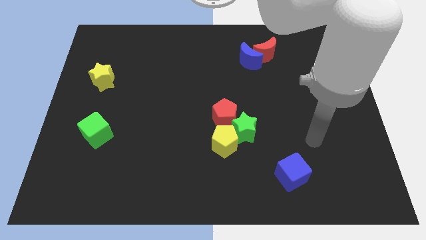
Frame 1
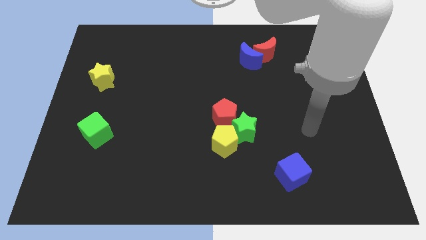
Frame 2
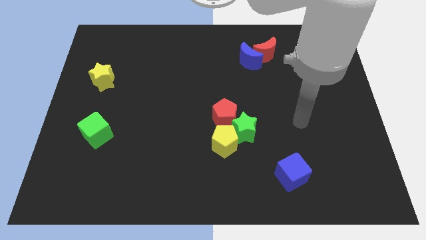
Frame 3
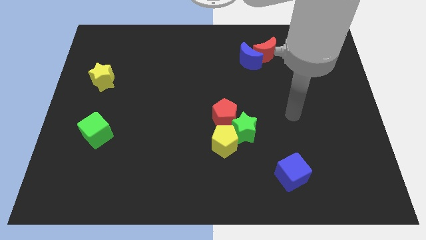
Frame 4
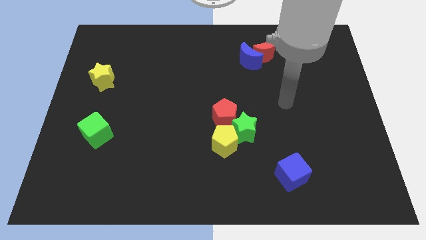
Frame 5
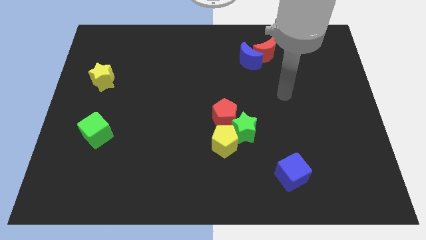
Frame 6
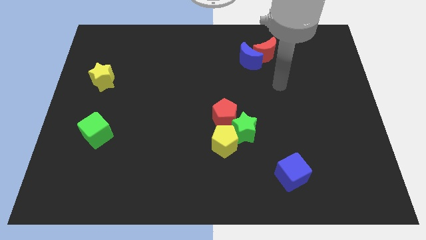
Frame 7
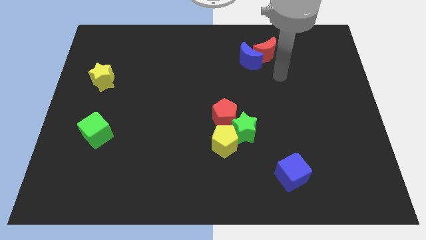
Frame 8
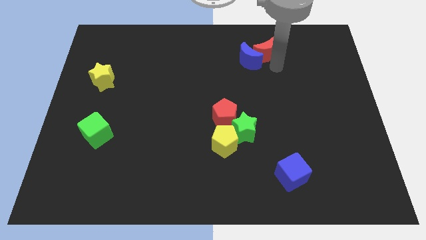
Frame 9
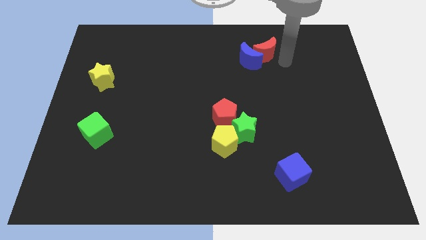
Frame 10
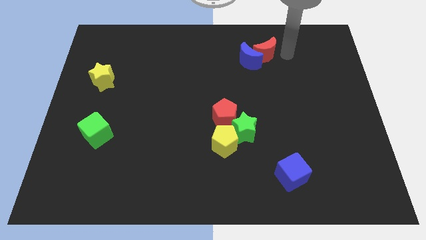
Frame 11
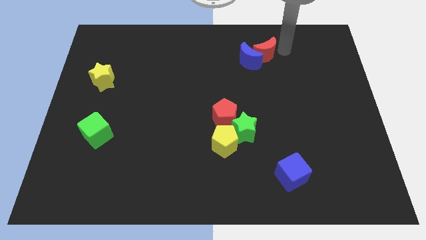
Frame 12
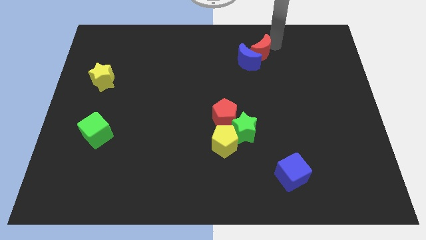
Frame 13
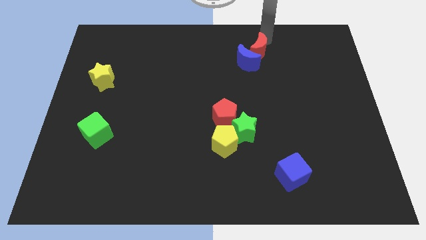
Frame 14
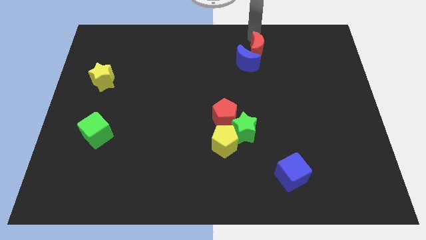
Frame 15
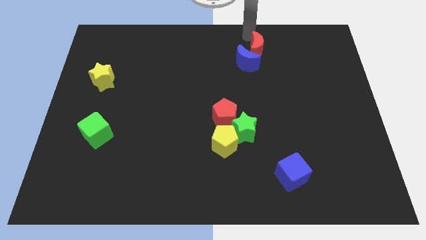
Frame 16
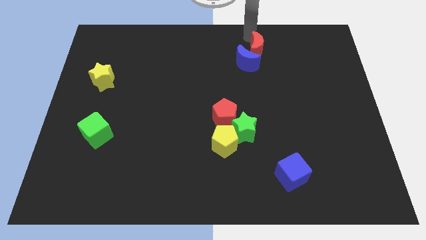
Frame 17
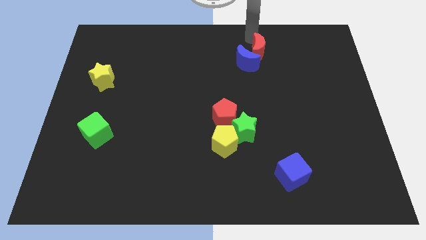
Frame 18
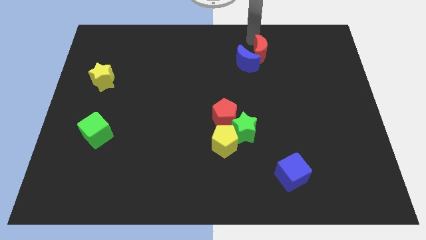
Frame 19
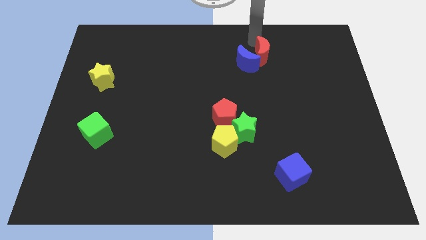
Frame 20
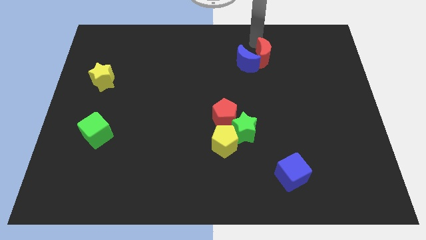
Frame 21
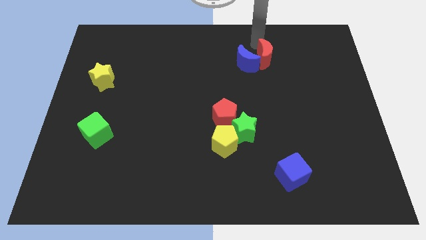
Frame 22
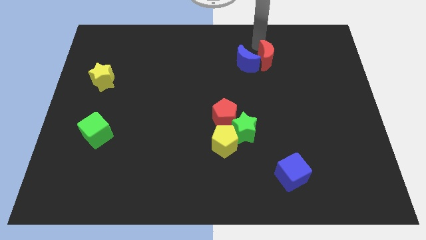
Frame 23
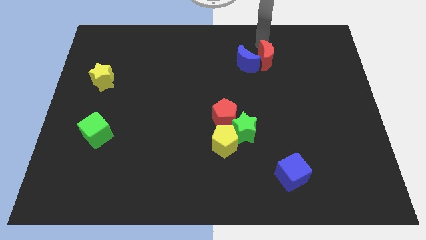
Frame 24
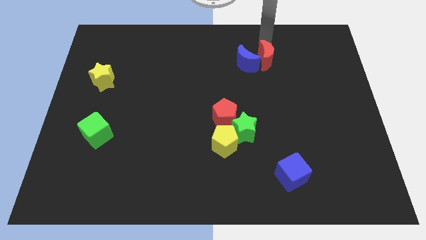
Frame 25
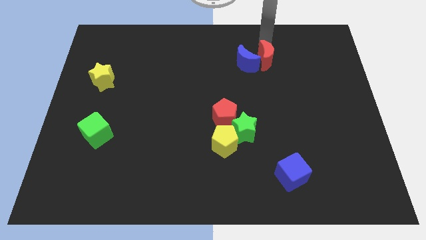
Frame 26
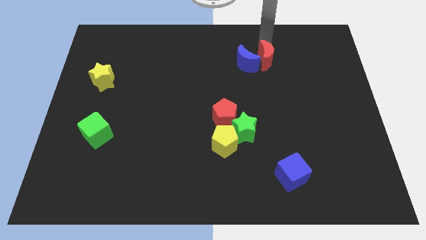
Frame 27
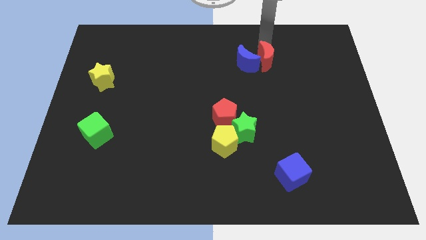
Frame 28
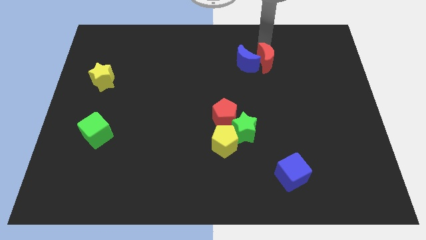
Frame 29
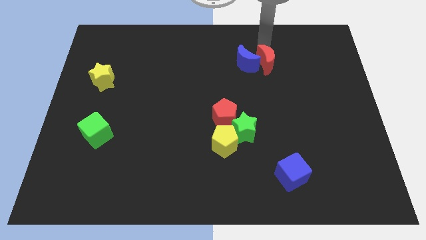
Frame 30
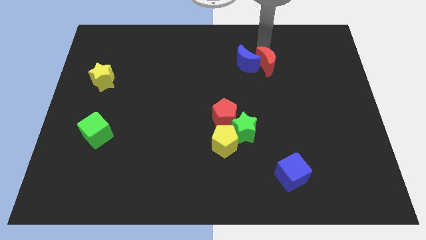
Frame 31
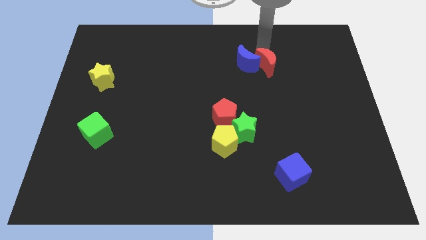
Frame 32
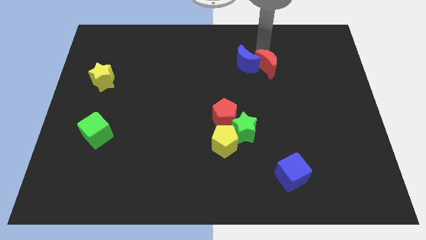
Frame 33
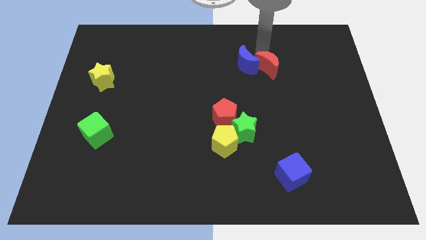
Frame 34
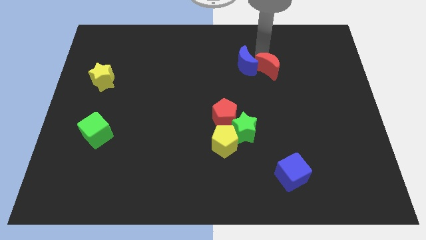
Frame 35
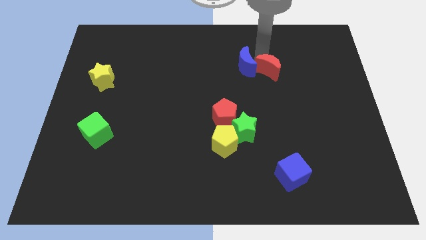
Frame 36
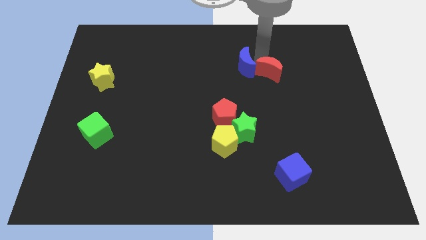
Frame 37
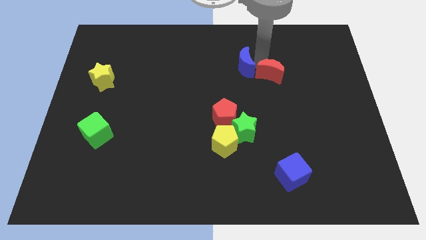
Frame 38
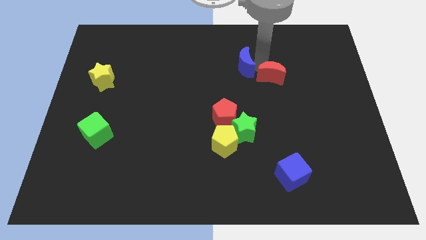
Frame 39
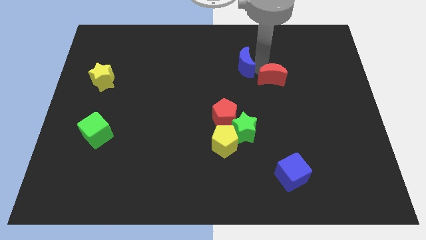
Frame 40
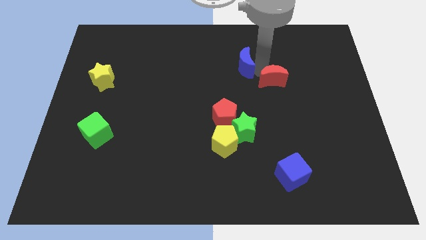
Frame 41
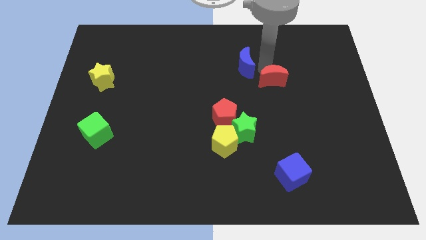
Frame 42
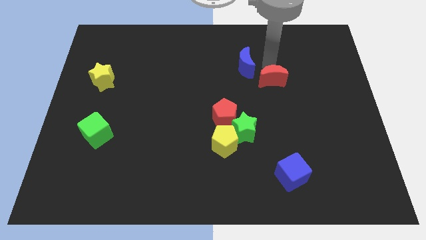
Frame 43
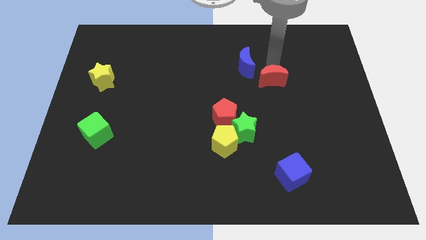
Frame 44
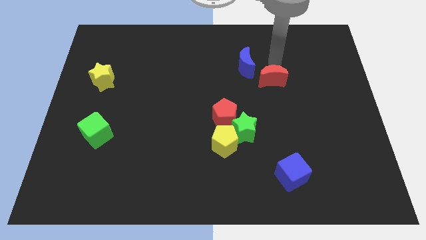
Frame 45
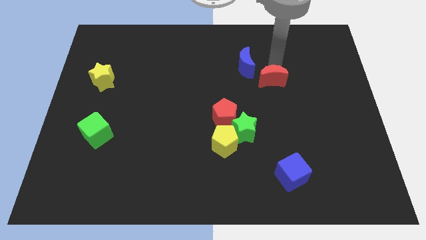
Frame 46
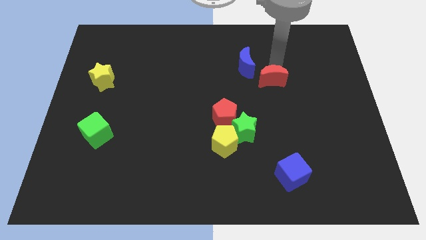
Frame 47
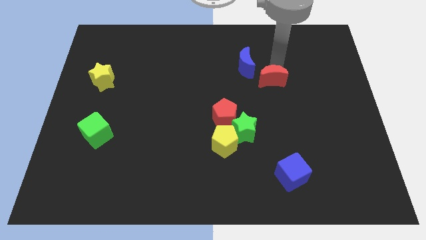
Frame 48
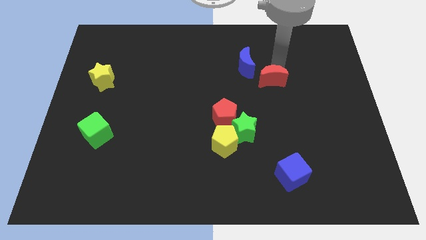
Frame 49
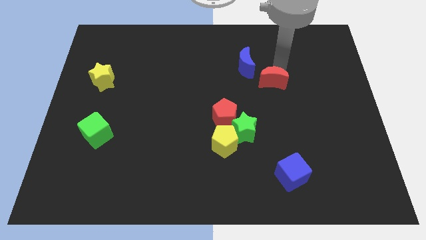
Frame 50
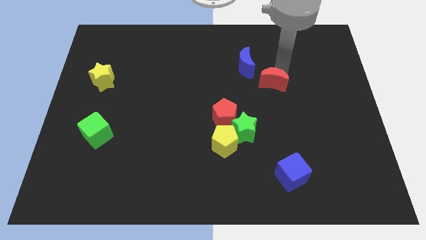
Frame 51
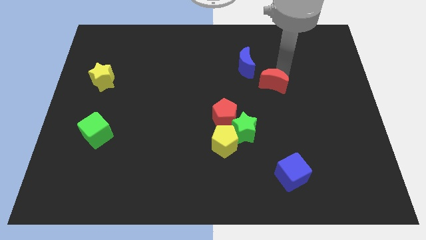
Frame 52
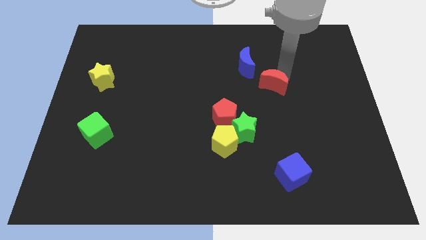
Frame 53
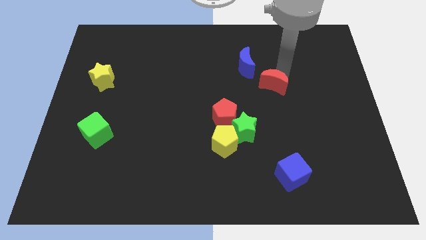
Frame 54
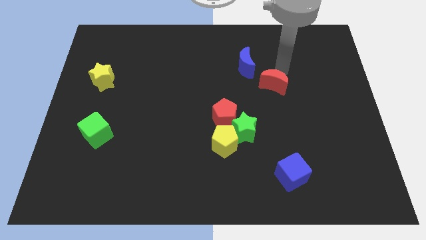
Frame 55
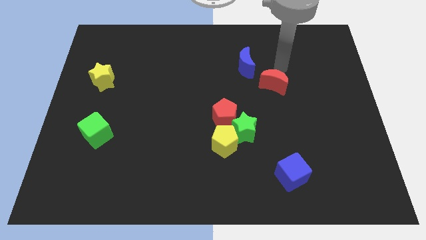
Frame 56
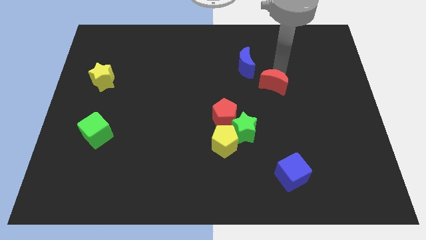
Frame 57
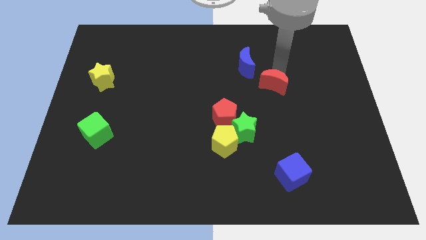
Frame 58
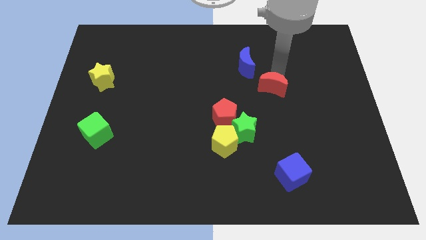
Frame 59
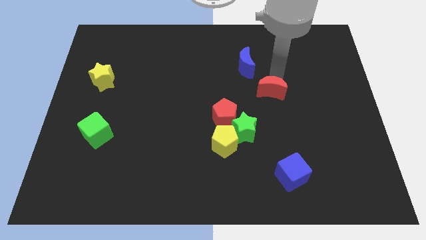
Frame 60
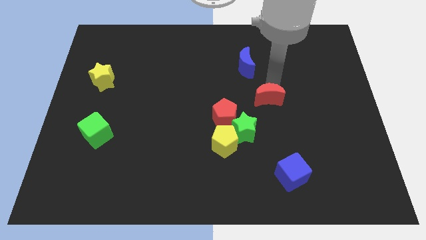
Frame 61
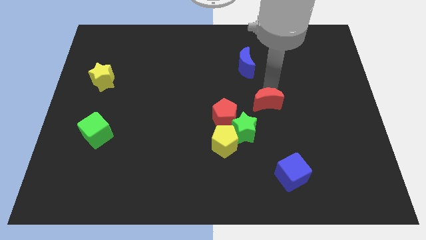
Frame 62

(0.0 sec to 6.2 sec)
slide the red moon to the right side of the red pentagon
